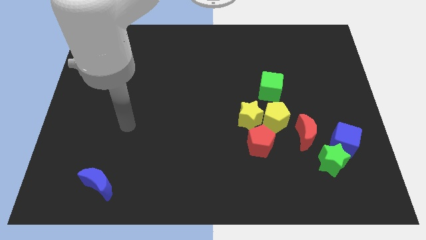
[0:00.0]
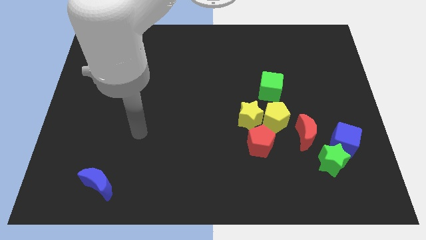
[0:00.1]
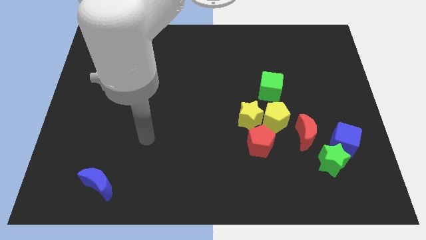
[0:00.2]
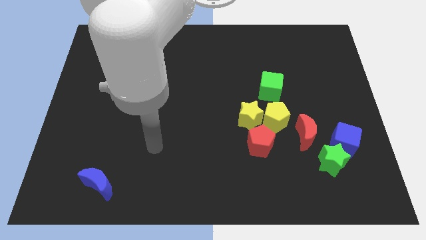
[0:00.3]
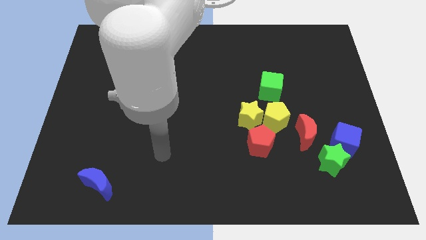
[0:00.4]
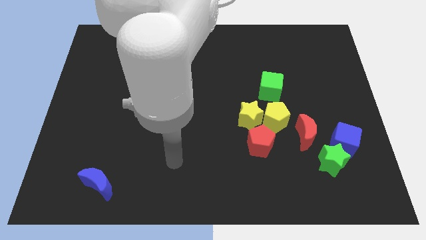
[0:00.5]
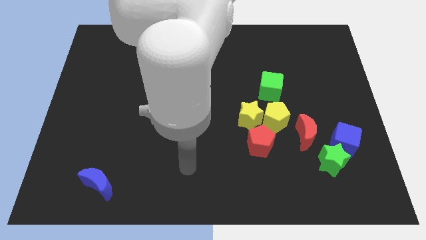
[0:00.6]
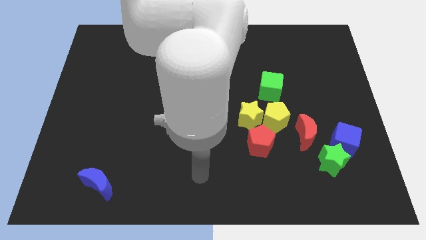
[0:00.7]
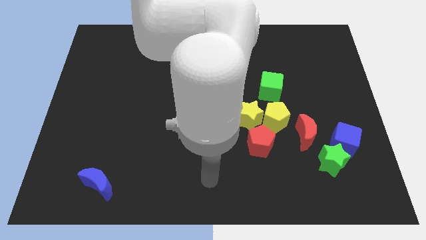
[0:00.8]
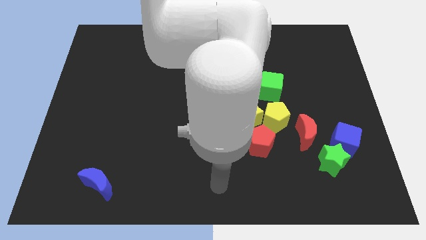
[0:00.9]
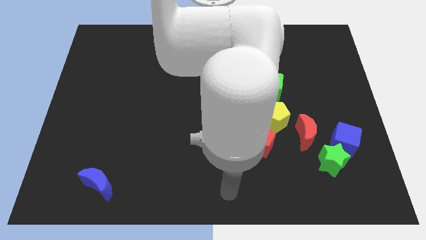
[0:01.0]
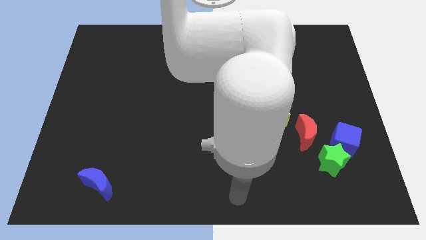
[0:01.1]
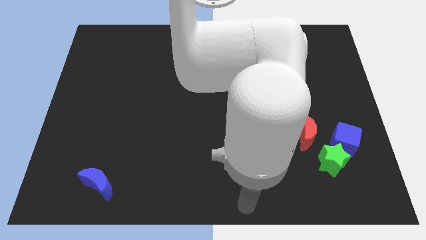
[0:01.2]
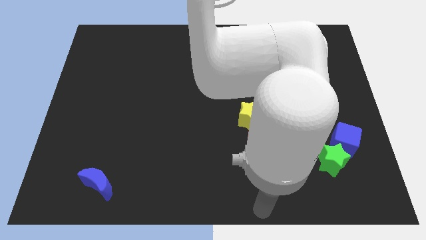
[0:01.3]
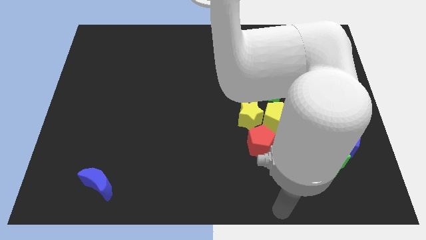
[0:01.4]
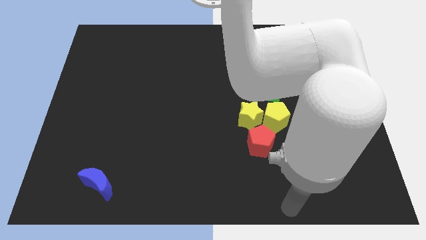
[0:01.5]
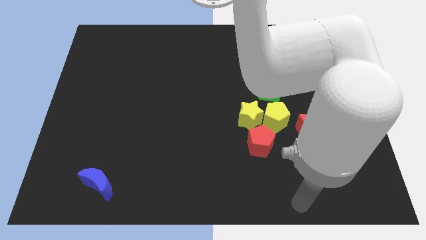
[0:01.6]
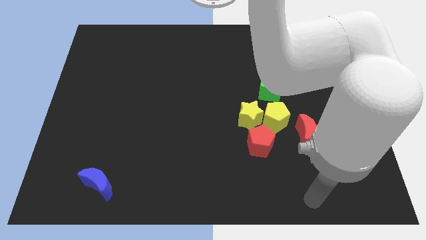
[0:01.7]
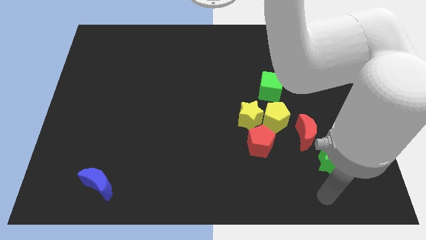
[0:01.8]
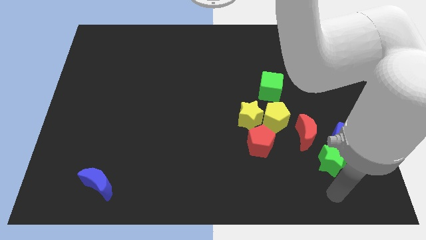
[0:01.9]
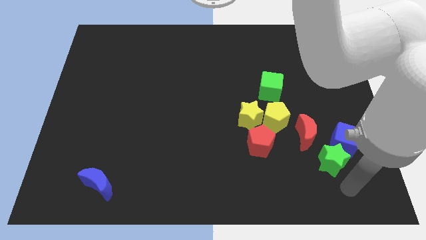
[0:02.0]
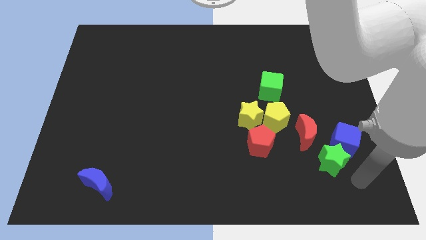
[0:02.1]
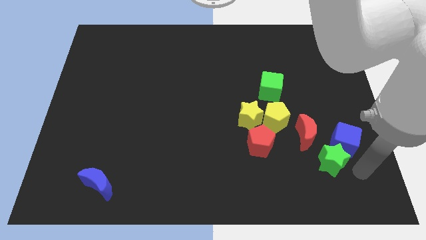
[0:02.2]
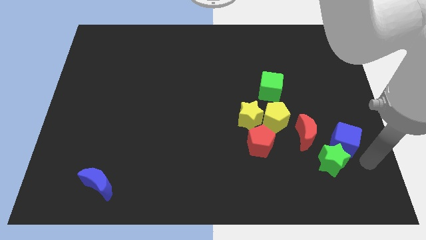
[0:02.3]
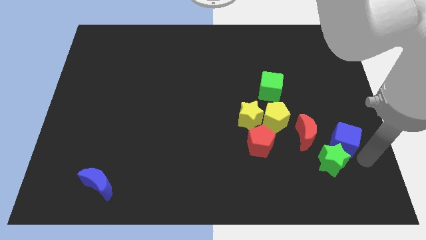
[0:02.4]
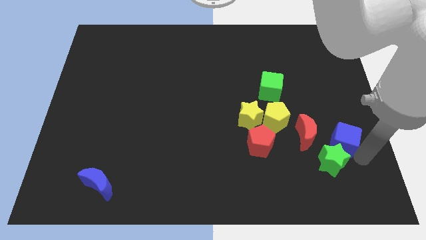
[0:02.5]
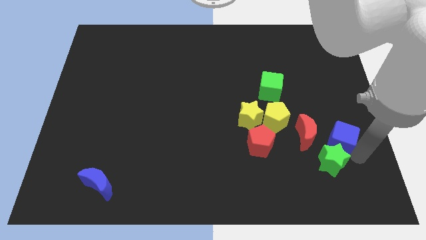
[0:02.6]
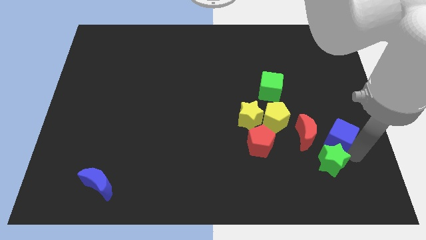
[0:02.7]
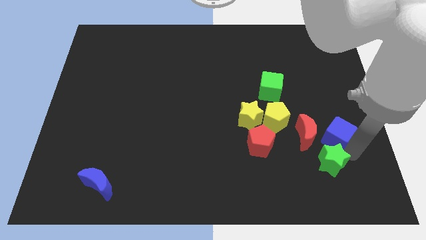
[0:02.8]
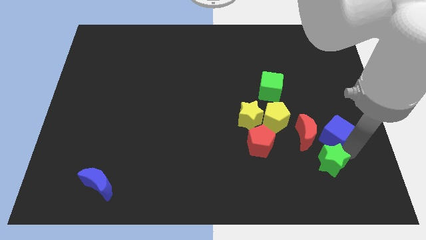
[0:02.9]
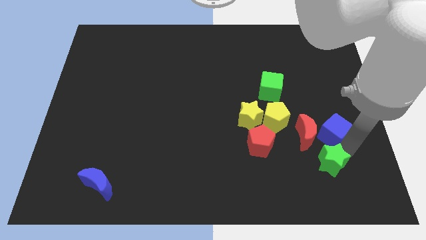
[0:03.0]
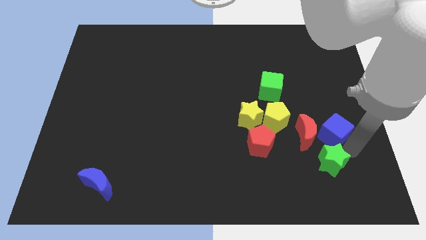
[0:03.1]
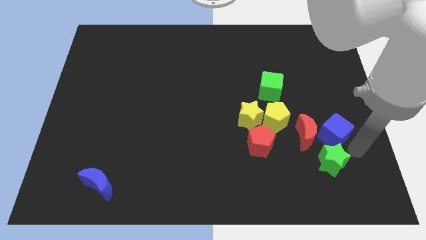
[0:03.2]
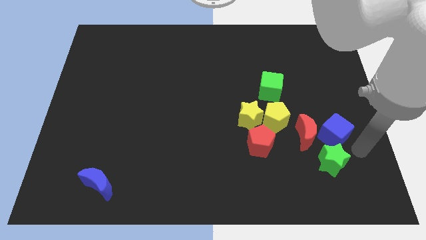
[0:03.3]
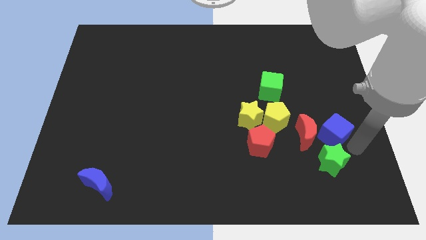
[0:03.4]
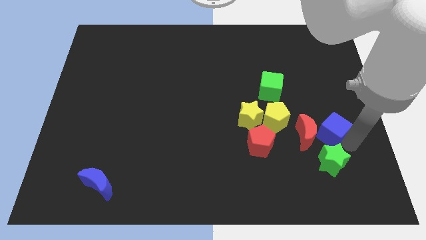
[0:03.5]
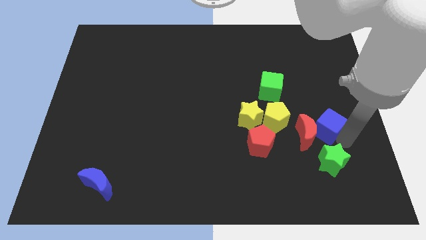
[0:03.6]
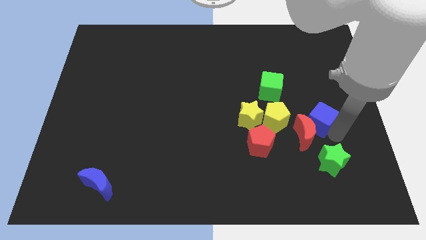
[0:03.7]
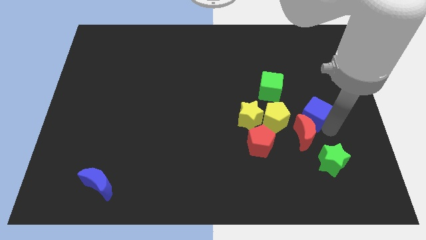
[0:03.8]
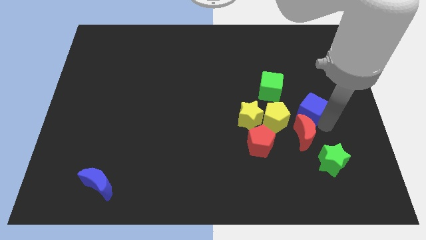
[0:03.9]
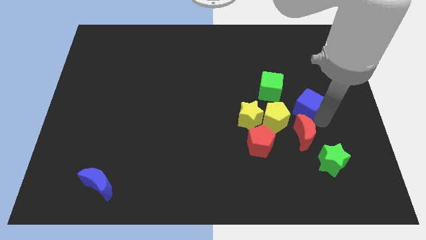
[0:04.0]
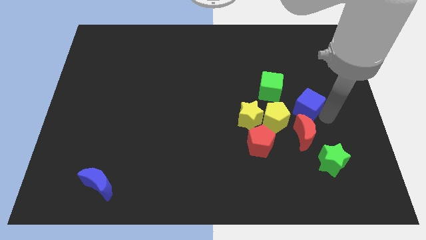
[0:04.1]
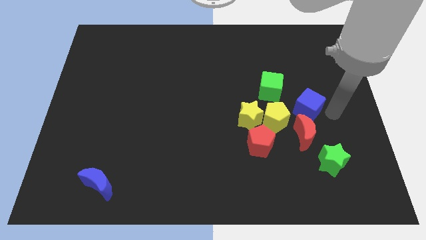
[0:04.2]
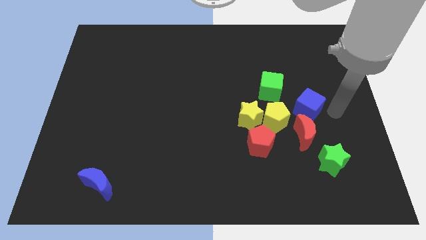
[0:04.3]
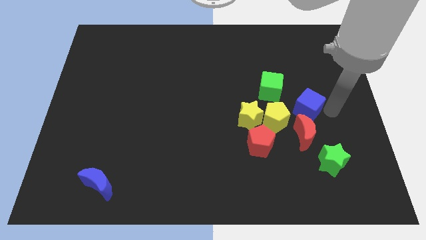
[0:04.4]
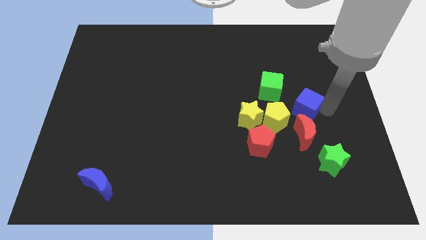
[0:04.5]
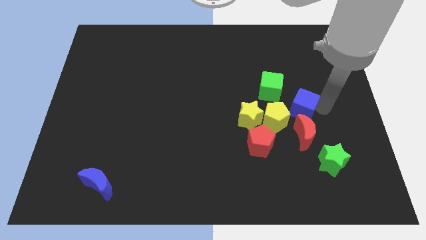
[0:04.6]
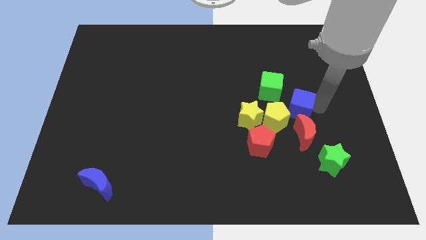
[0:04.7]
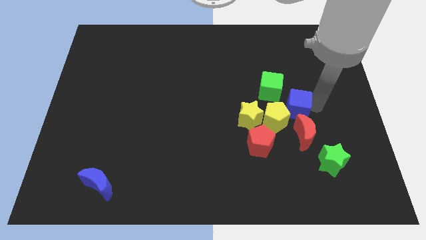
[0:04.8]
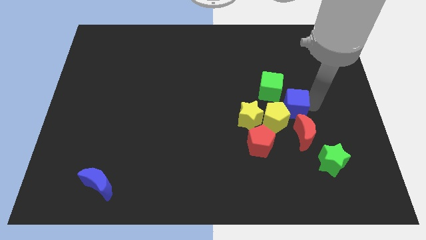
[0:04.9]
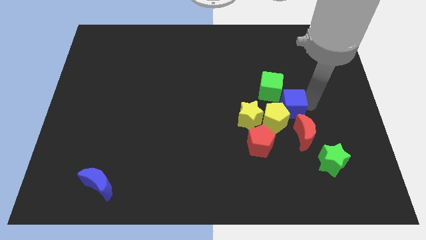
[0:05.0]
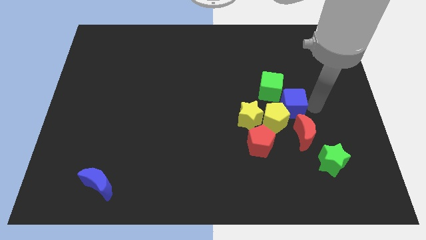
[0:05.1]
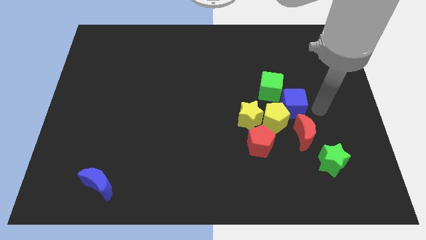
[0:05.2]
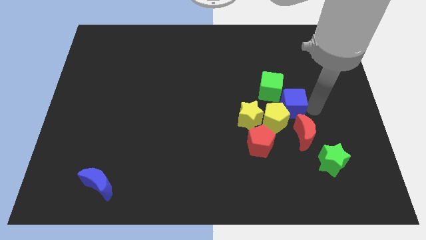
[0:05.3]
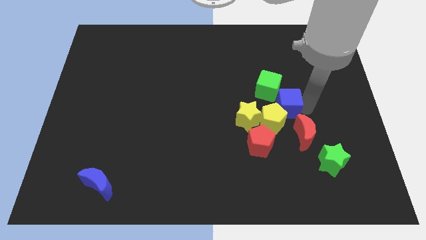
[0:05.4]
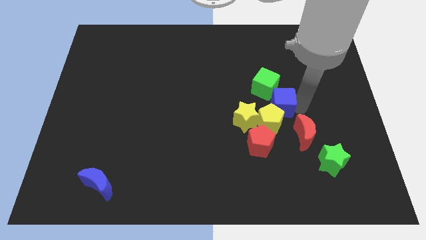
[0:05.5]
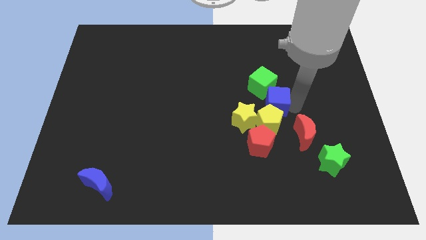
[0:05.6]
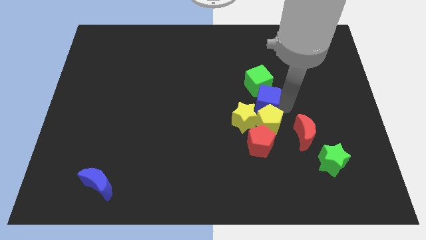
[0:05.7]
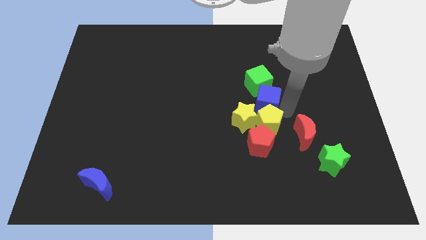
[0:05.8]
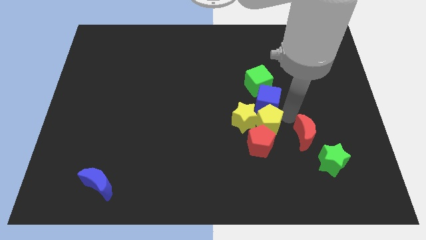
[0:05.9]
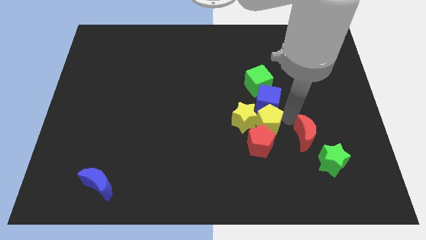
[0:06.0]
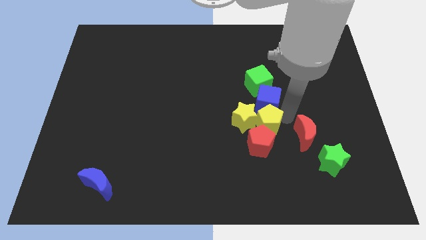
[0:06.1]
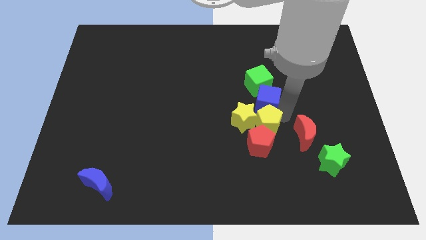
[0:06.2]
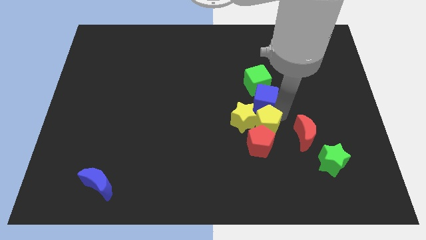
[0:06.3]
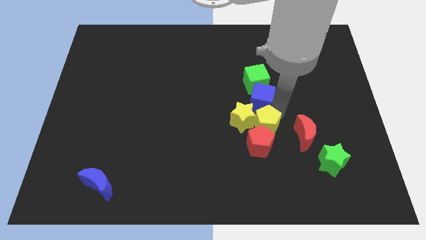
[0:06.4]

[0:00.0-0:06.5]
move the blue cube up and to the left

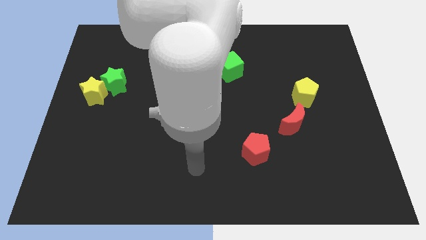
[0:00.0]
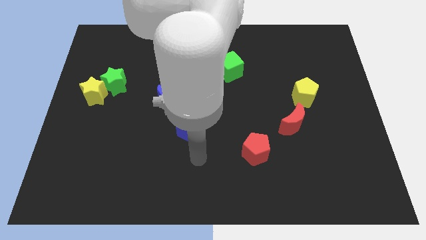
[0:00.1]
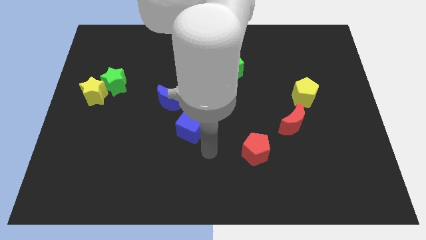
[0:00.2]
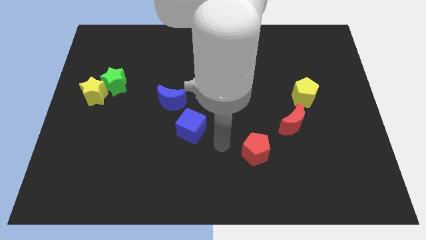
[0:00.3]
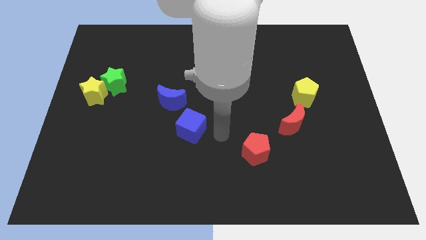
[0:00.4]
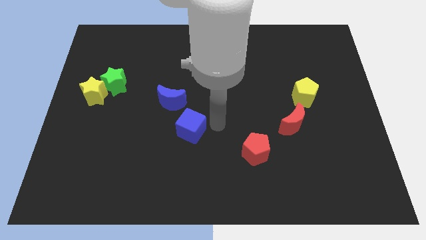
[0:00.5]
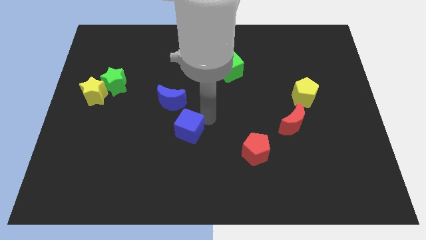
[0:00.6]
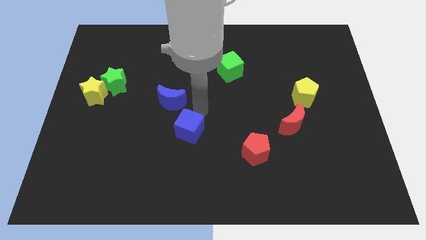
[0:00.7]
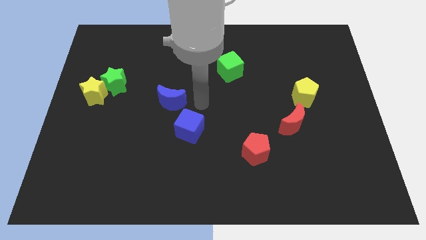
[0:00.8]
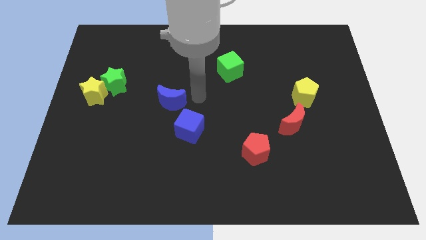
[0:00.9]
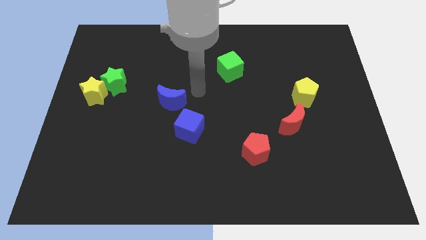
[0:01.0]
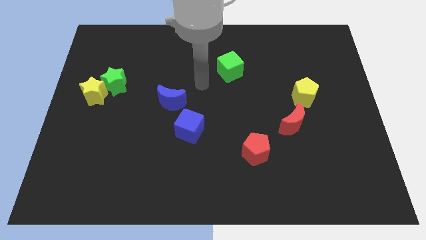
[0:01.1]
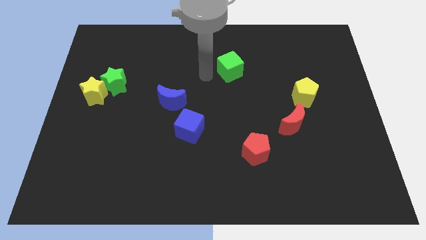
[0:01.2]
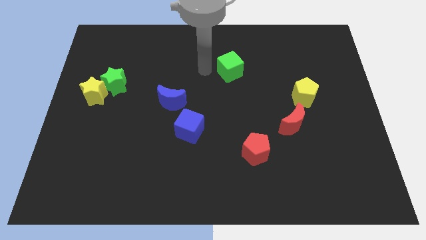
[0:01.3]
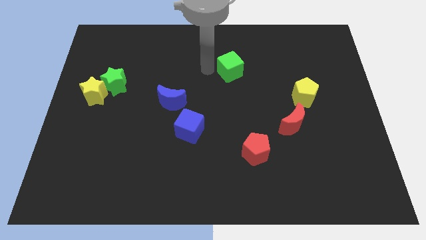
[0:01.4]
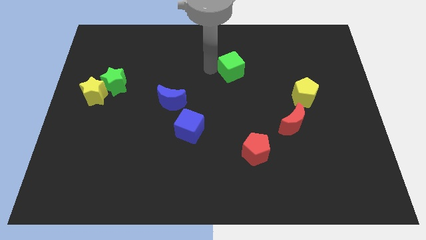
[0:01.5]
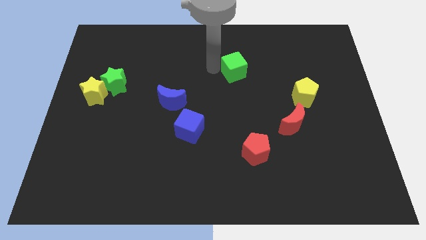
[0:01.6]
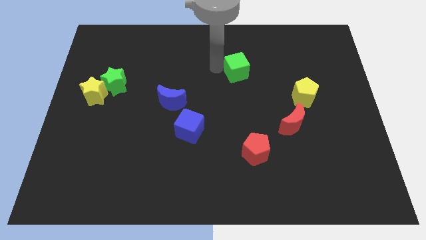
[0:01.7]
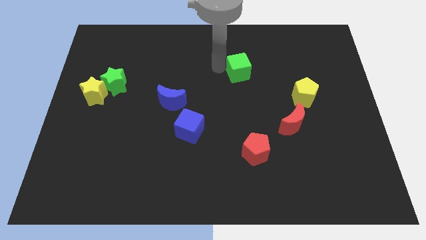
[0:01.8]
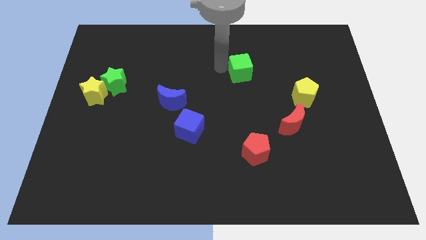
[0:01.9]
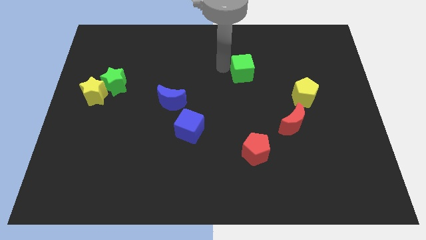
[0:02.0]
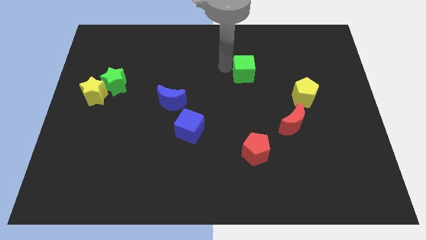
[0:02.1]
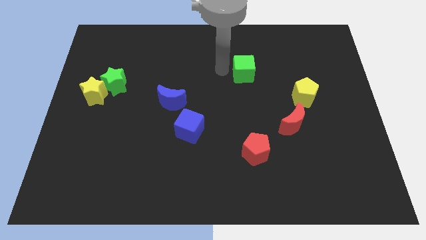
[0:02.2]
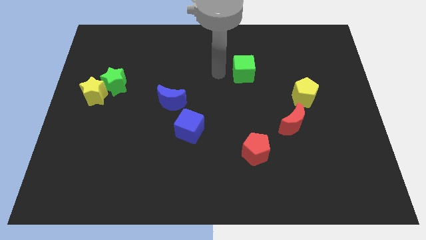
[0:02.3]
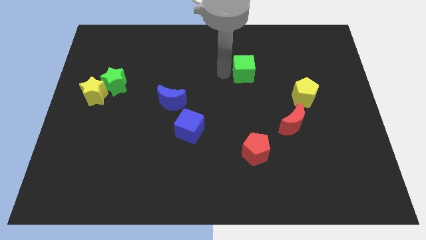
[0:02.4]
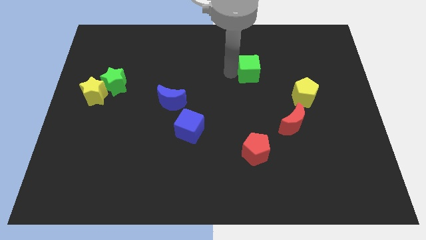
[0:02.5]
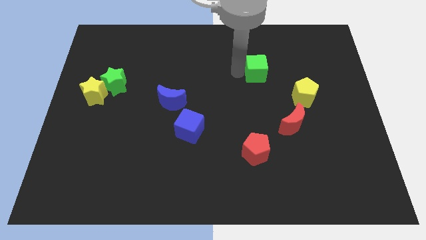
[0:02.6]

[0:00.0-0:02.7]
slide the green cube a little to the right
